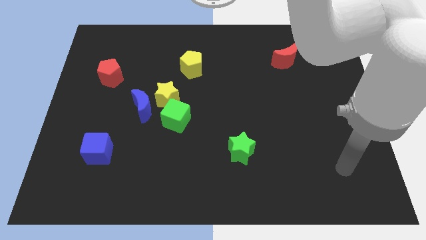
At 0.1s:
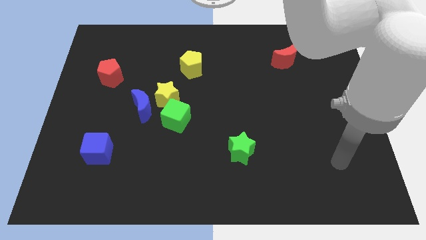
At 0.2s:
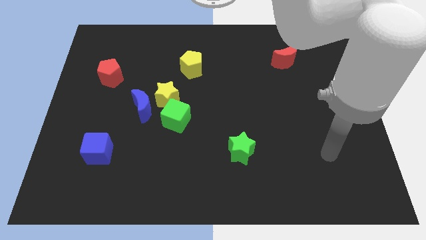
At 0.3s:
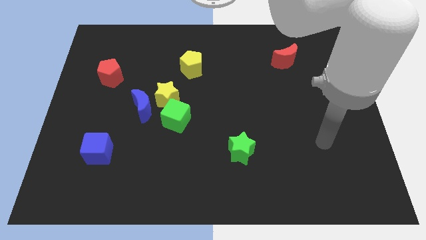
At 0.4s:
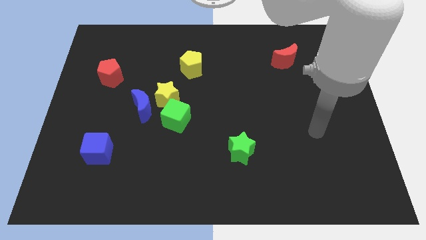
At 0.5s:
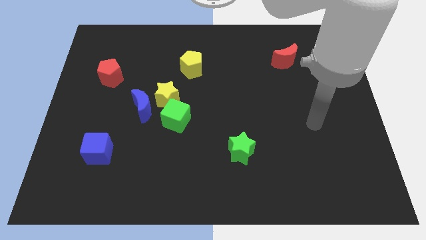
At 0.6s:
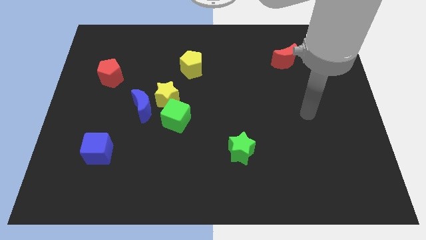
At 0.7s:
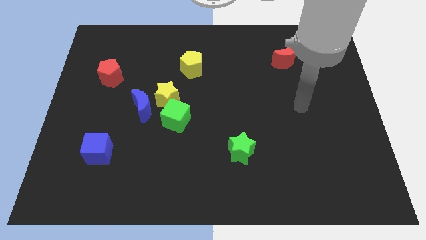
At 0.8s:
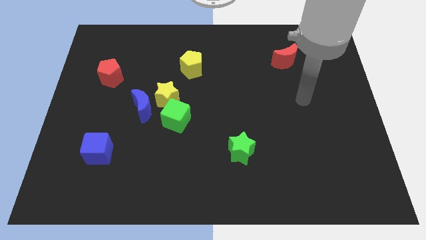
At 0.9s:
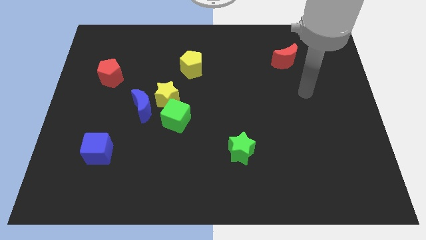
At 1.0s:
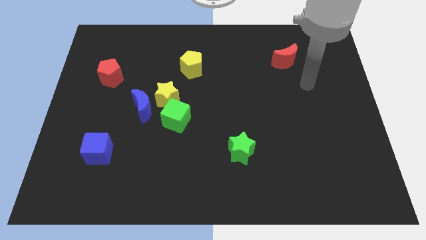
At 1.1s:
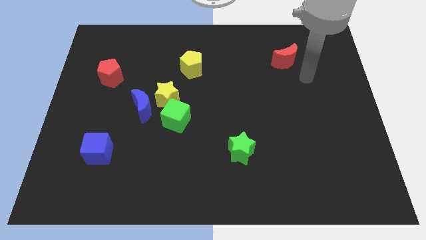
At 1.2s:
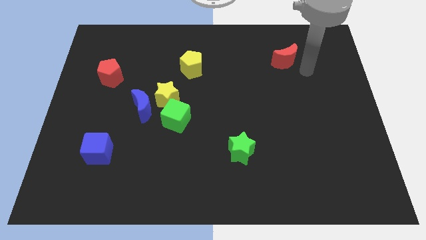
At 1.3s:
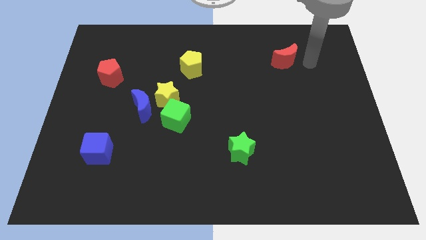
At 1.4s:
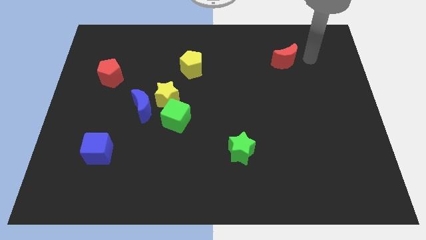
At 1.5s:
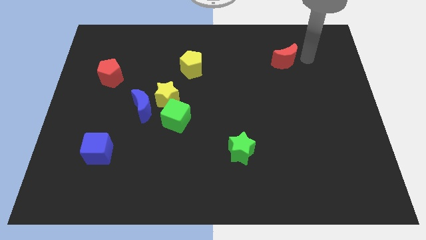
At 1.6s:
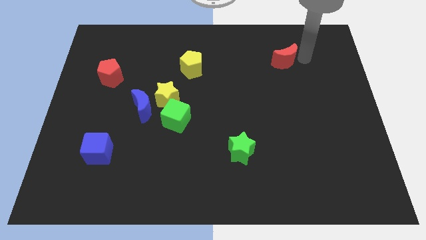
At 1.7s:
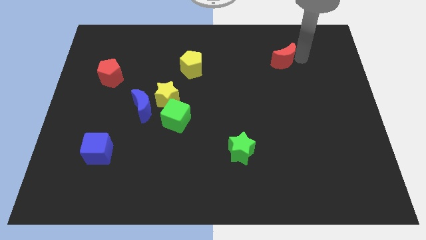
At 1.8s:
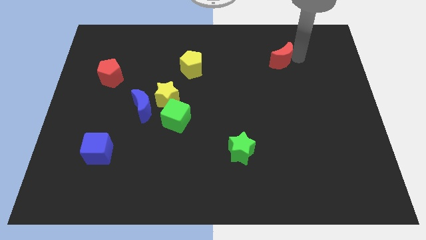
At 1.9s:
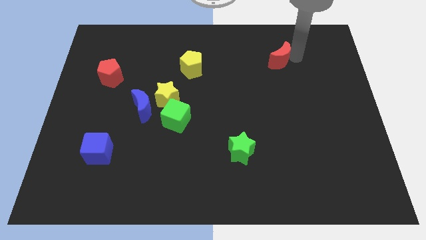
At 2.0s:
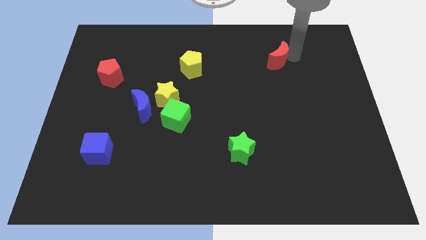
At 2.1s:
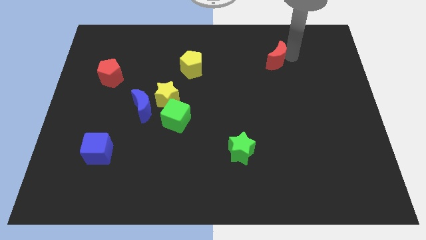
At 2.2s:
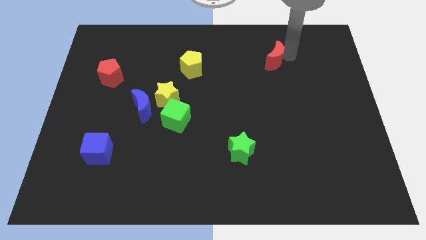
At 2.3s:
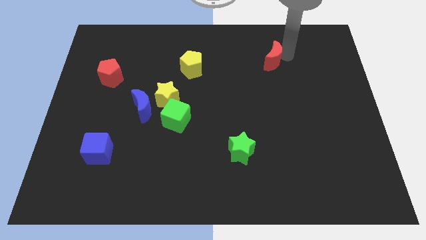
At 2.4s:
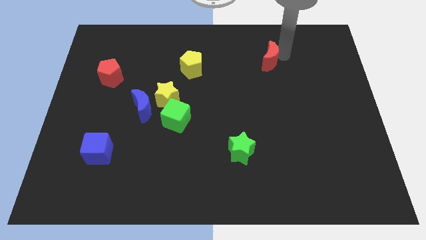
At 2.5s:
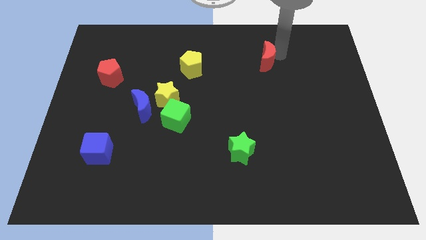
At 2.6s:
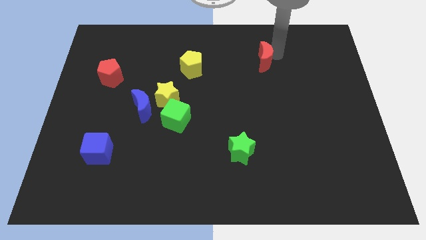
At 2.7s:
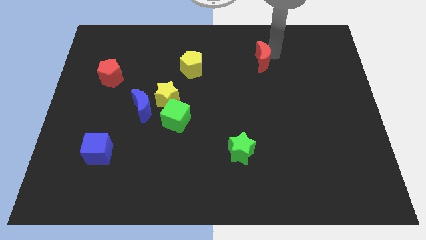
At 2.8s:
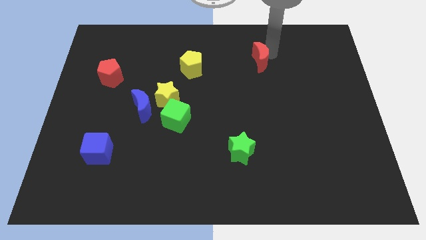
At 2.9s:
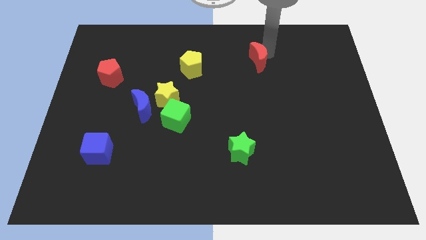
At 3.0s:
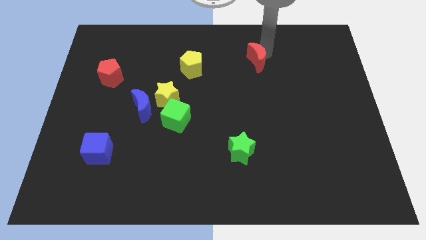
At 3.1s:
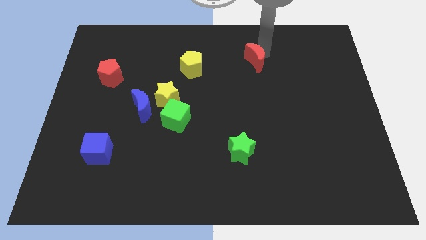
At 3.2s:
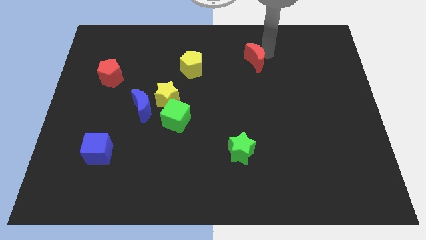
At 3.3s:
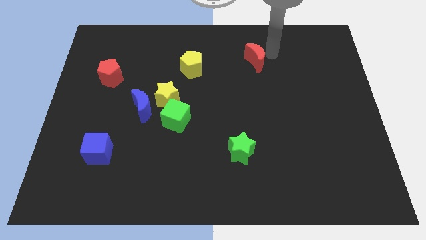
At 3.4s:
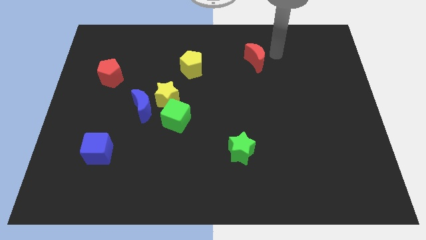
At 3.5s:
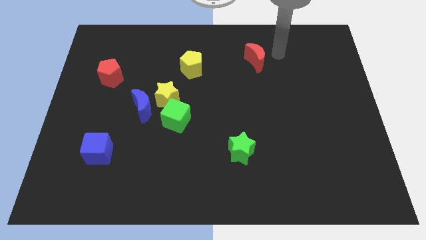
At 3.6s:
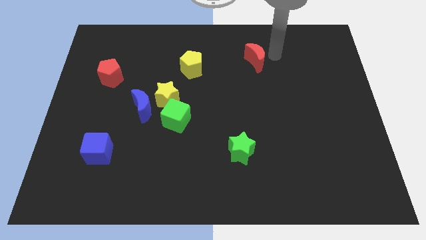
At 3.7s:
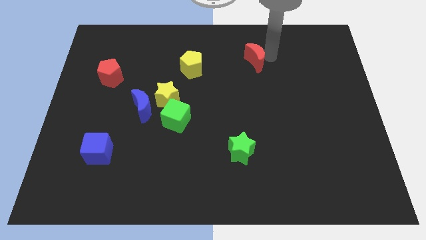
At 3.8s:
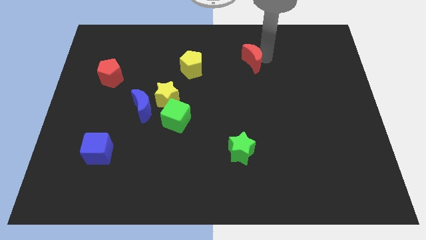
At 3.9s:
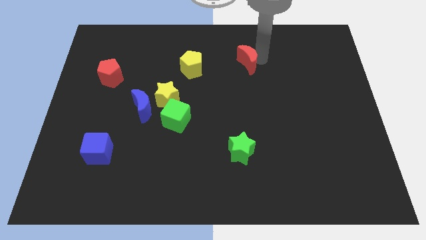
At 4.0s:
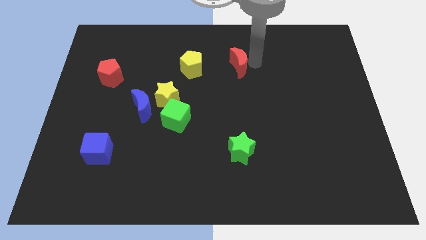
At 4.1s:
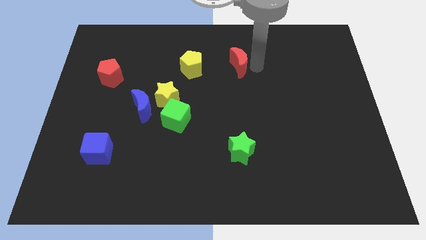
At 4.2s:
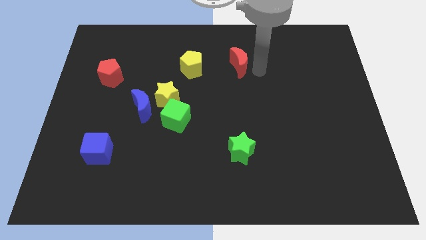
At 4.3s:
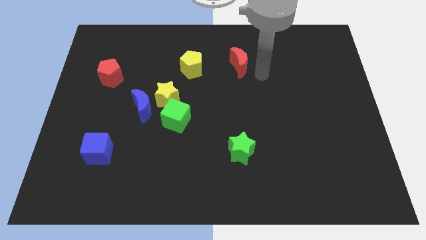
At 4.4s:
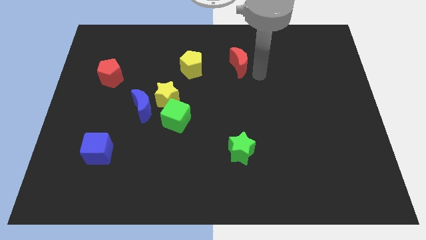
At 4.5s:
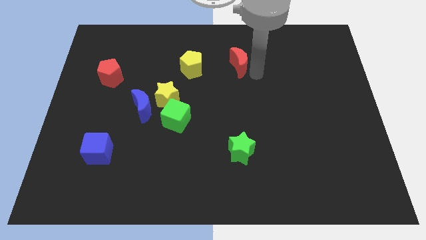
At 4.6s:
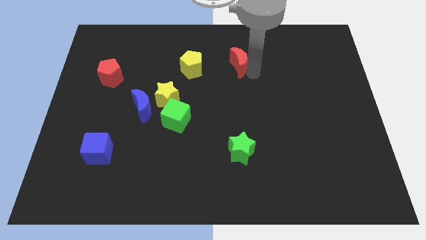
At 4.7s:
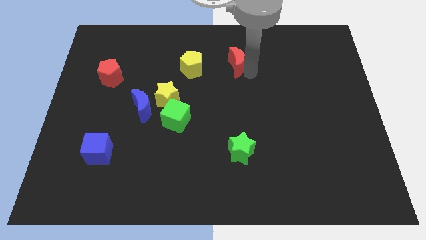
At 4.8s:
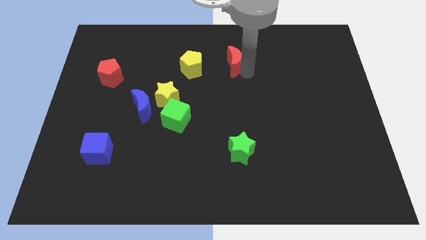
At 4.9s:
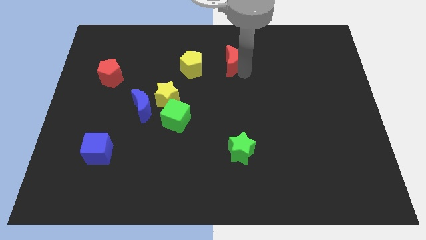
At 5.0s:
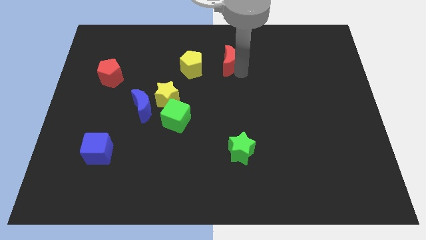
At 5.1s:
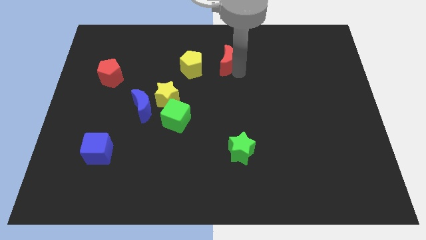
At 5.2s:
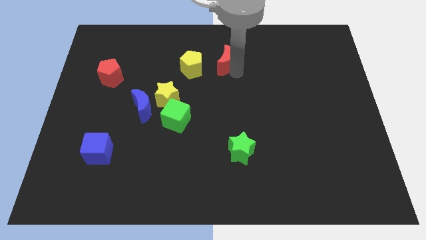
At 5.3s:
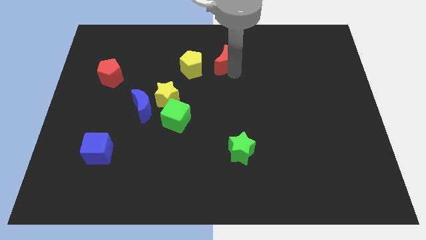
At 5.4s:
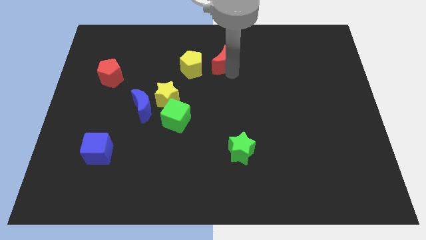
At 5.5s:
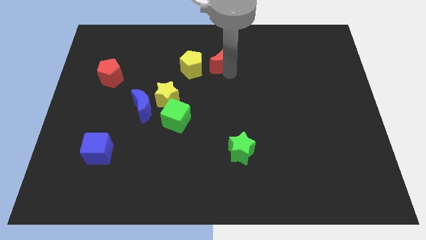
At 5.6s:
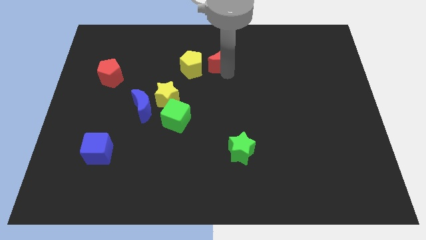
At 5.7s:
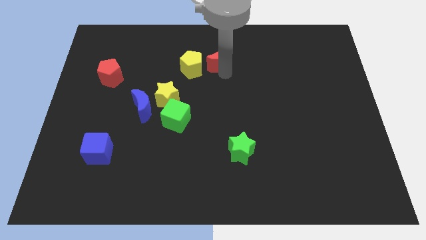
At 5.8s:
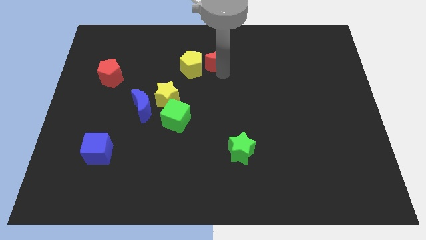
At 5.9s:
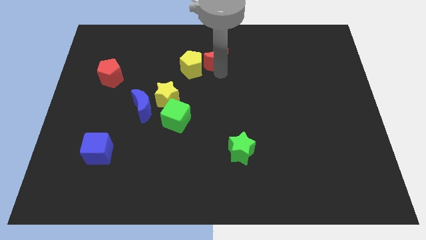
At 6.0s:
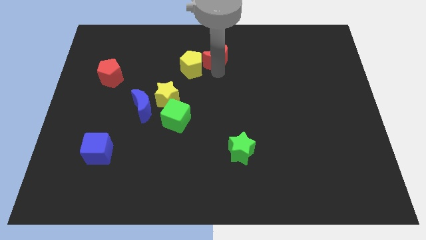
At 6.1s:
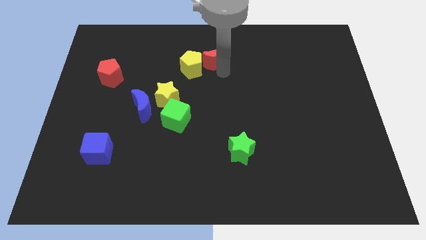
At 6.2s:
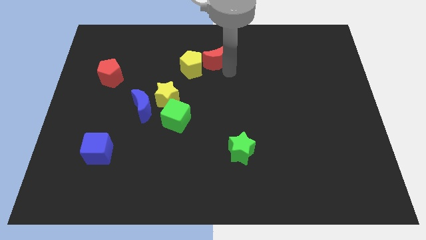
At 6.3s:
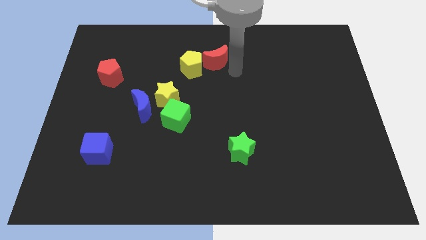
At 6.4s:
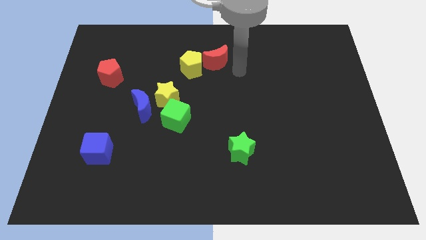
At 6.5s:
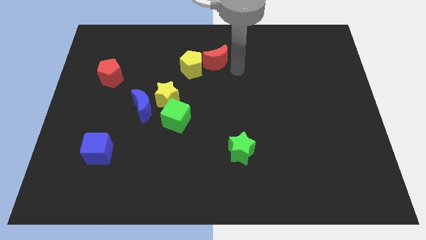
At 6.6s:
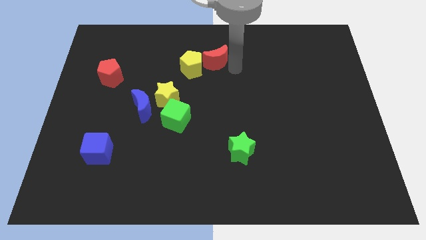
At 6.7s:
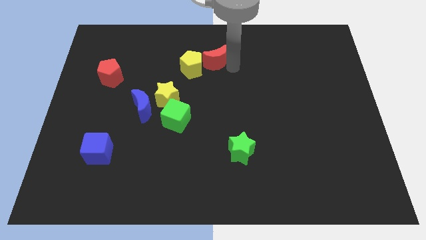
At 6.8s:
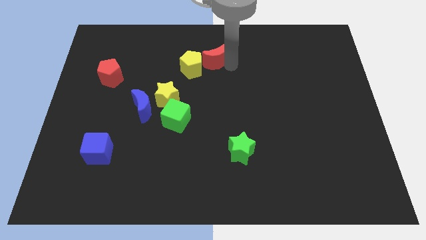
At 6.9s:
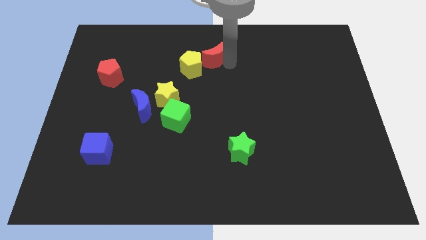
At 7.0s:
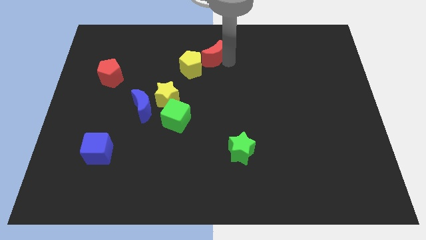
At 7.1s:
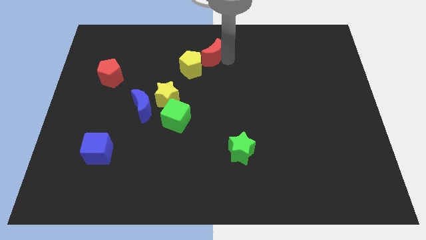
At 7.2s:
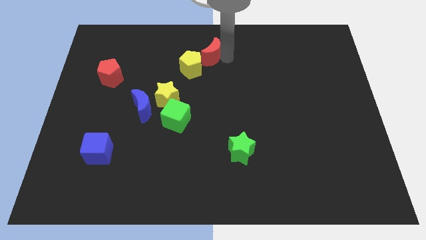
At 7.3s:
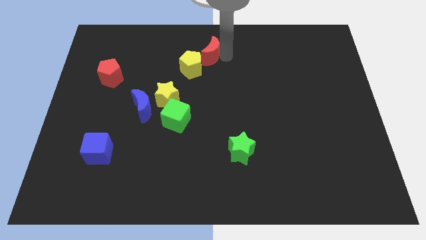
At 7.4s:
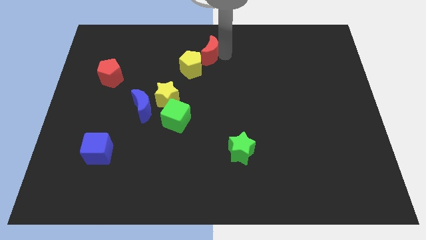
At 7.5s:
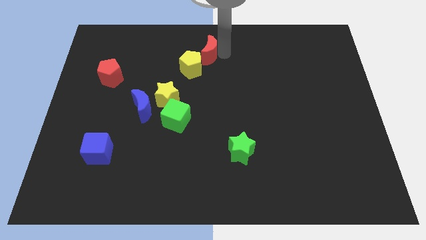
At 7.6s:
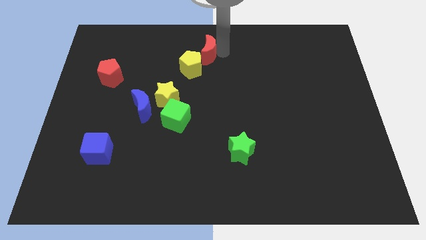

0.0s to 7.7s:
push the red moon to the left

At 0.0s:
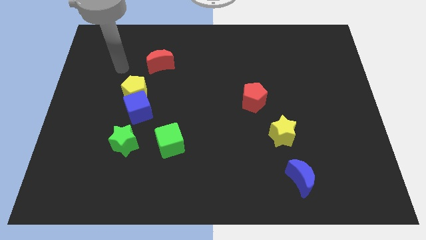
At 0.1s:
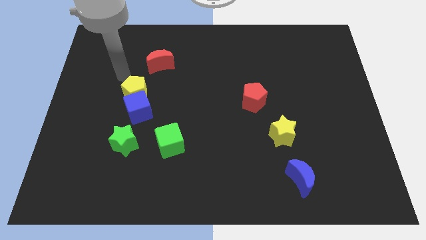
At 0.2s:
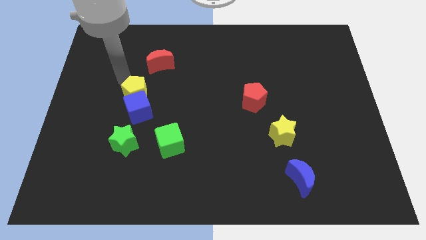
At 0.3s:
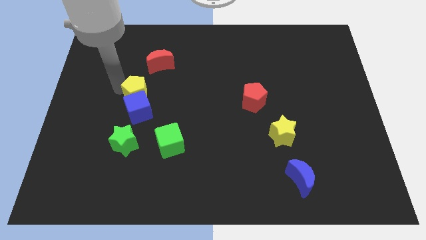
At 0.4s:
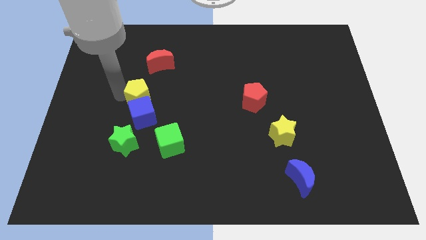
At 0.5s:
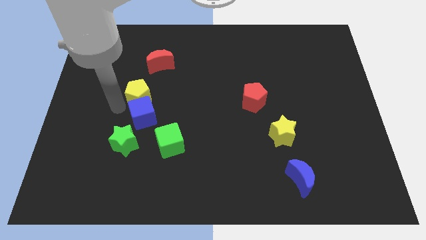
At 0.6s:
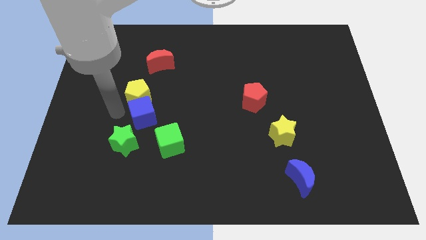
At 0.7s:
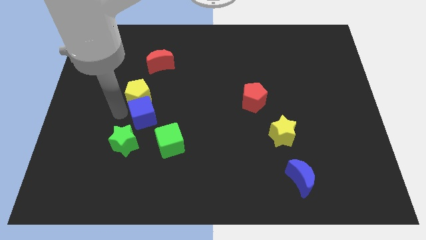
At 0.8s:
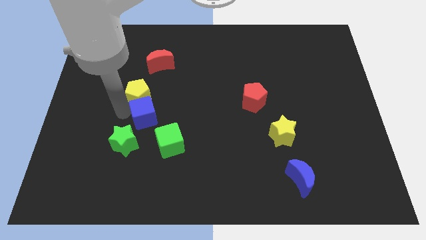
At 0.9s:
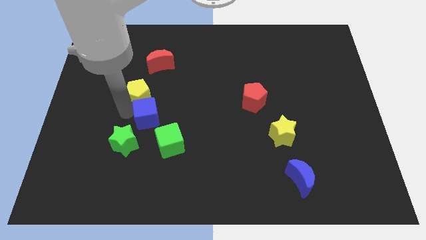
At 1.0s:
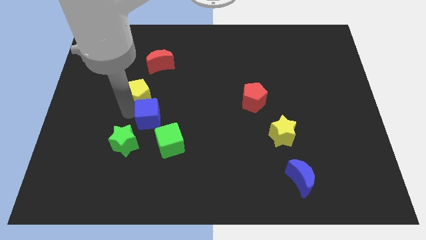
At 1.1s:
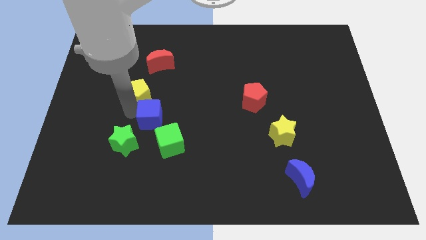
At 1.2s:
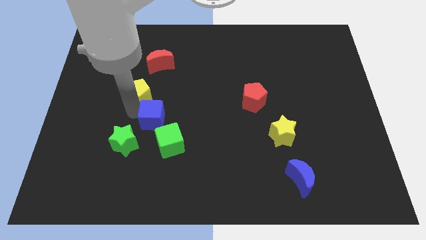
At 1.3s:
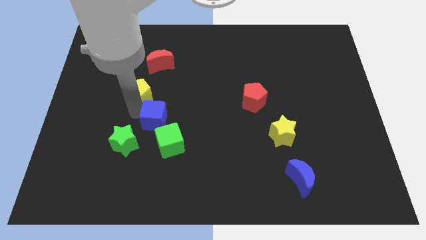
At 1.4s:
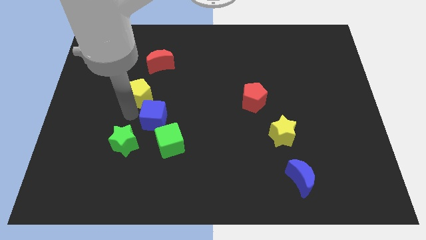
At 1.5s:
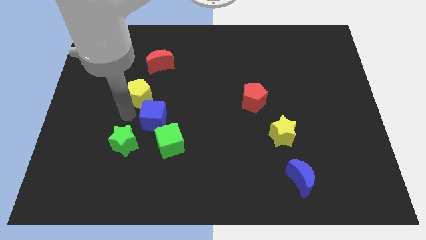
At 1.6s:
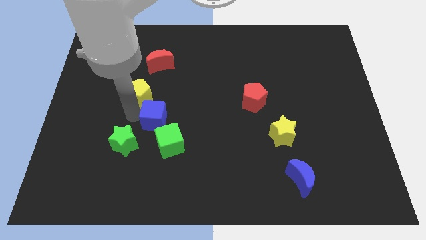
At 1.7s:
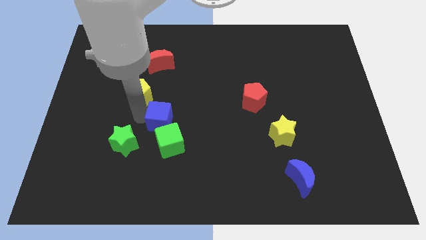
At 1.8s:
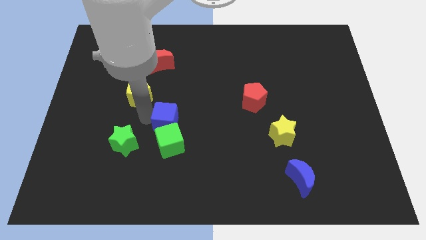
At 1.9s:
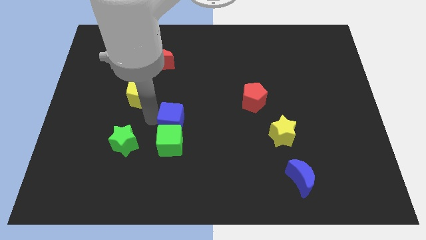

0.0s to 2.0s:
slide the blue cube diagonally downwards and right a little bit
